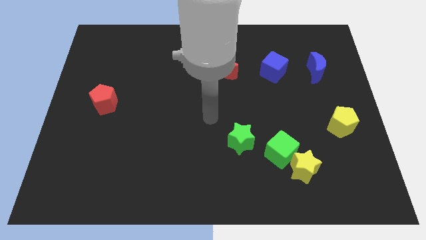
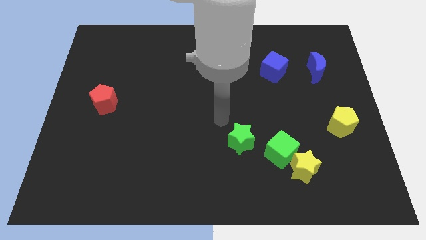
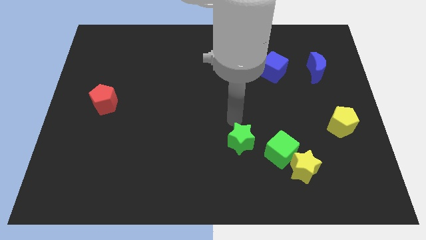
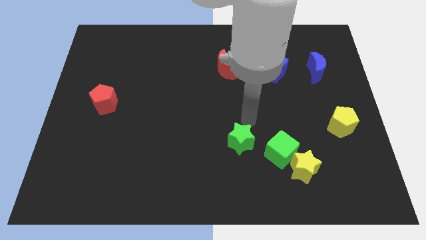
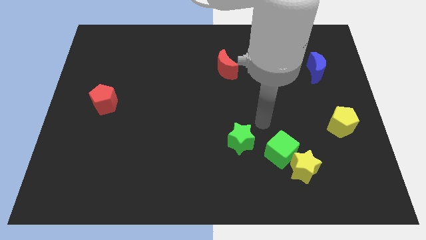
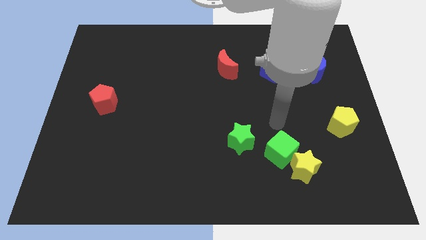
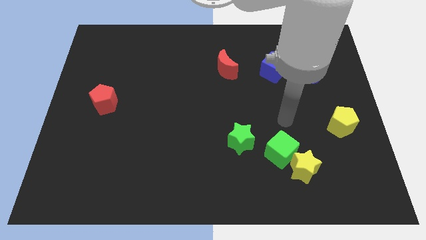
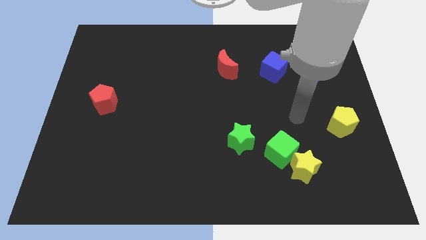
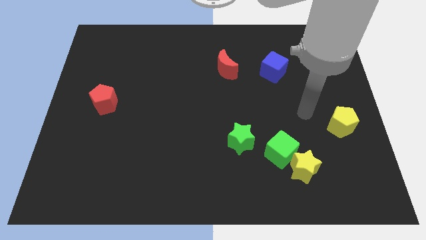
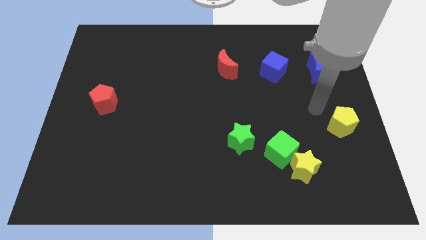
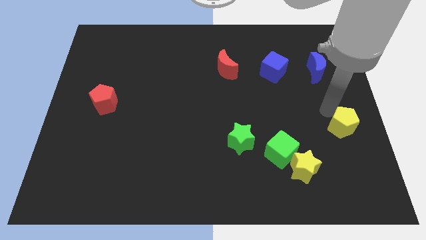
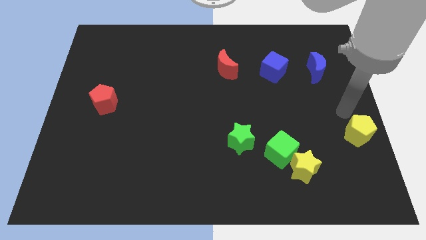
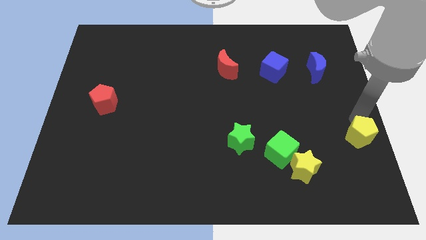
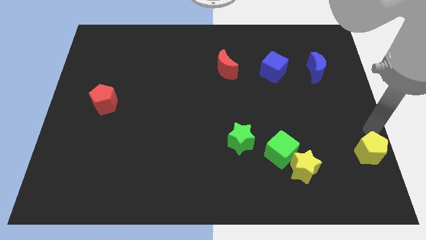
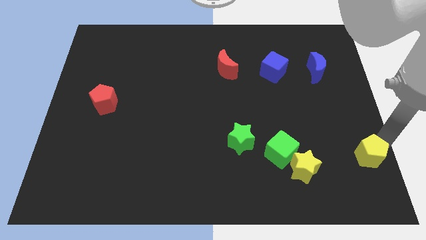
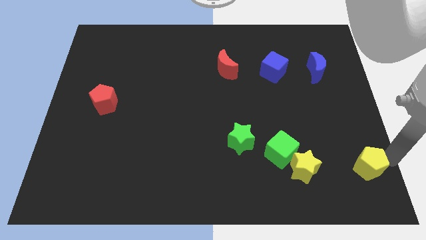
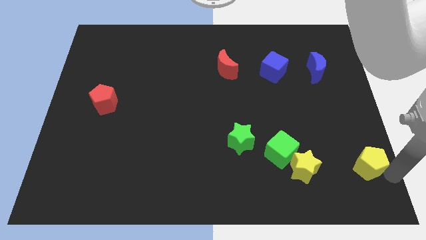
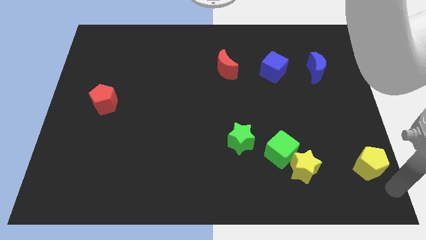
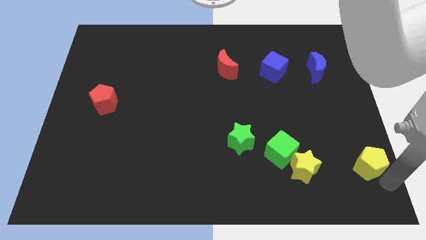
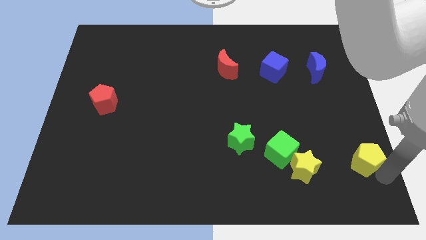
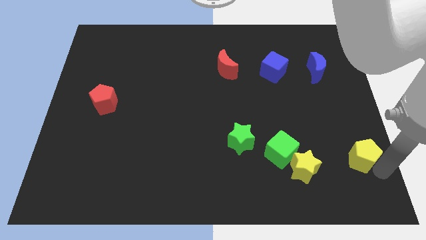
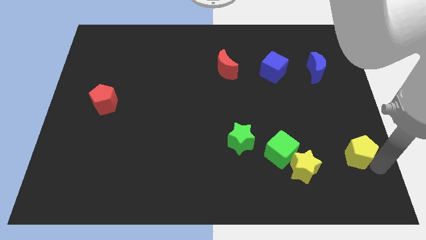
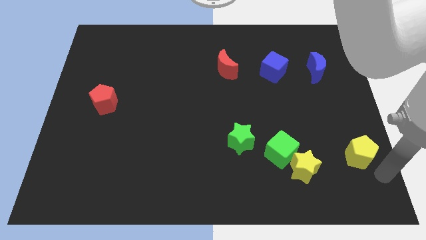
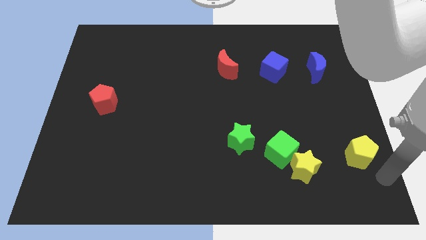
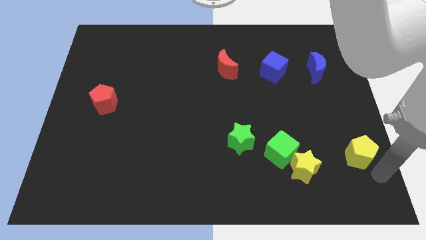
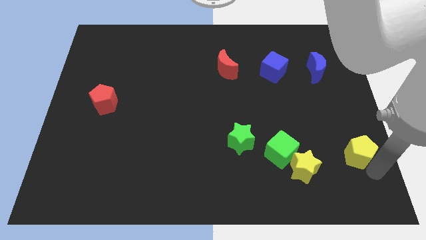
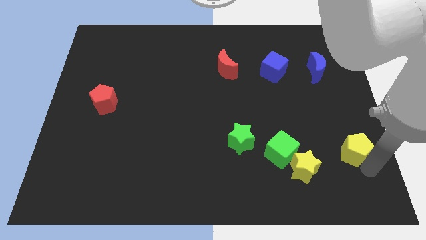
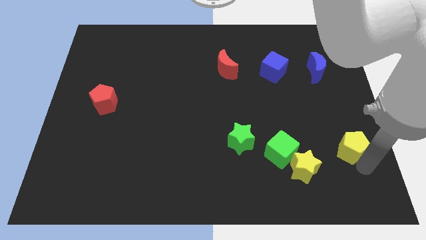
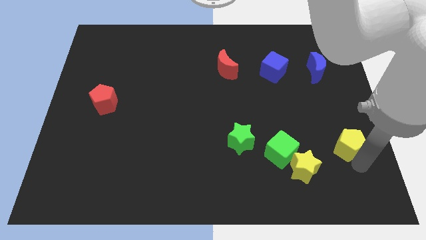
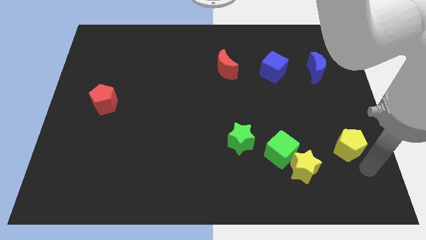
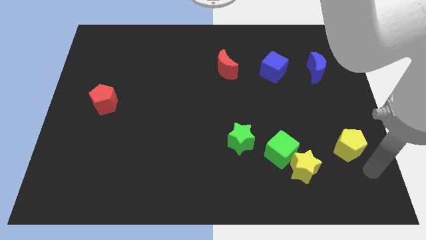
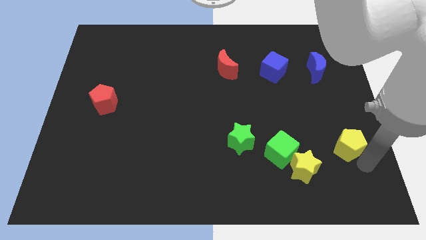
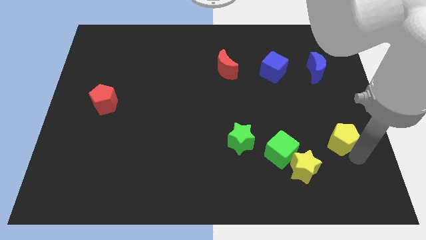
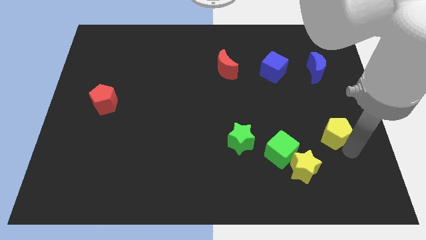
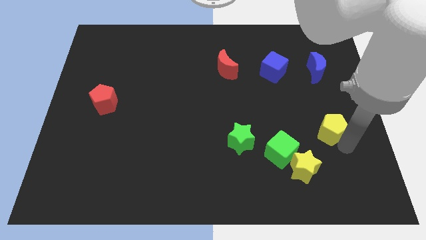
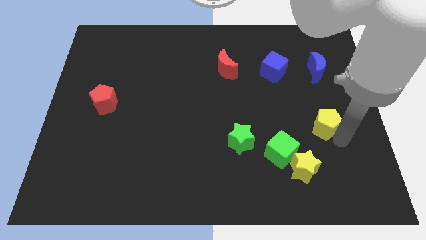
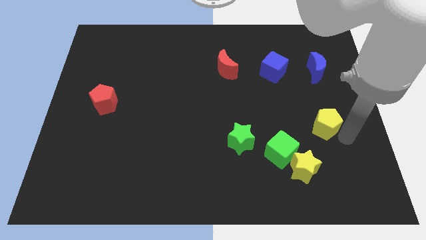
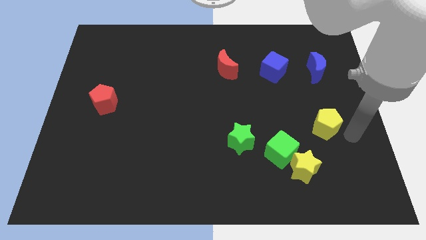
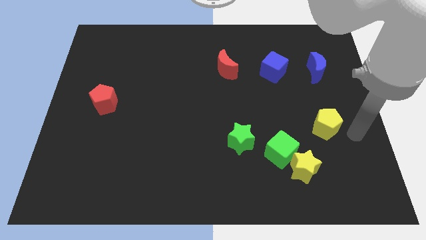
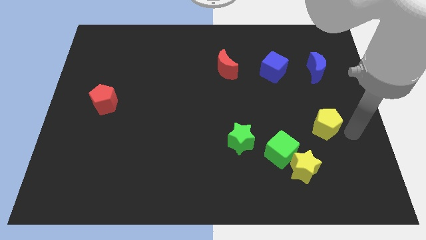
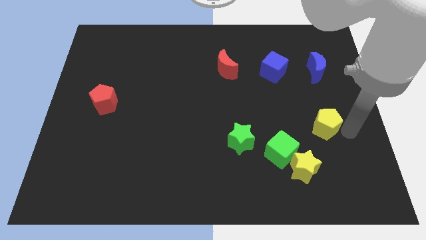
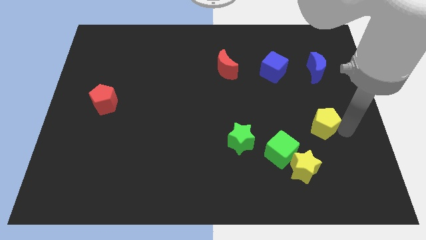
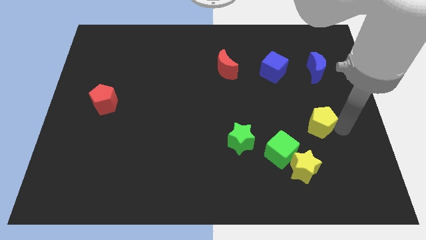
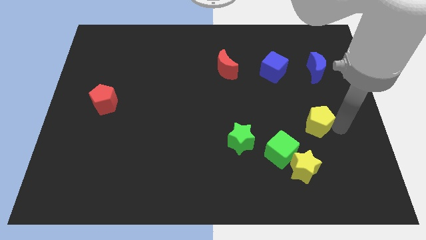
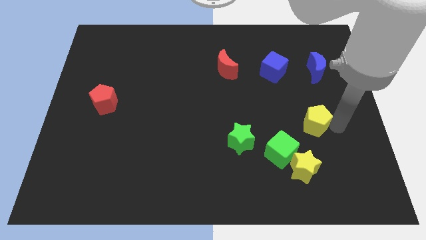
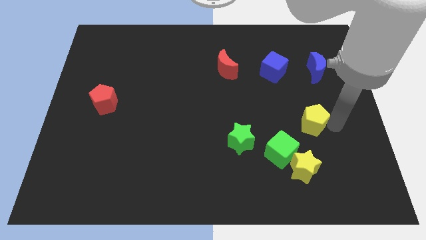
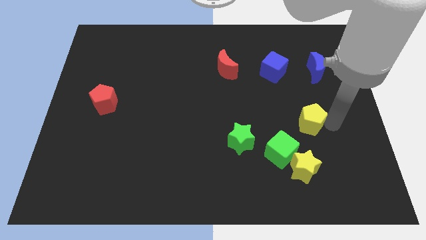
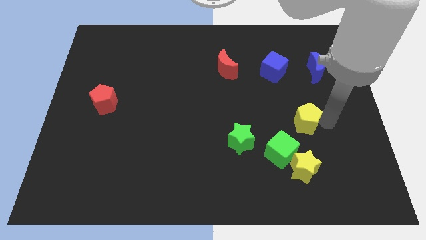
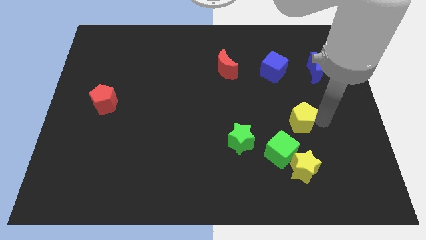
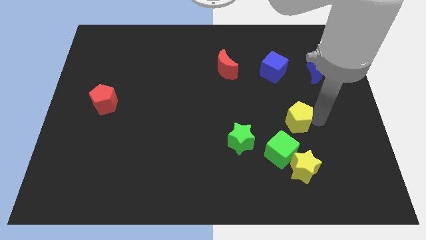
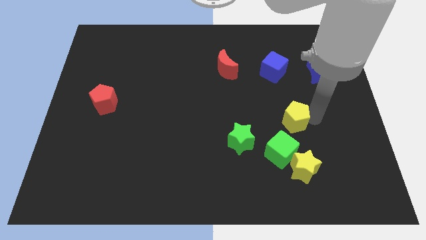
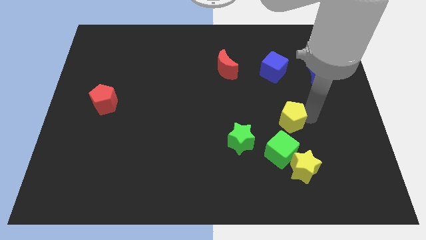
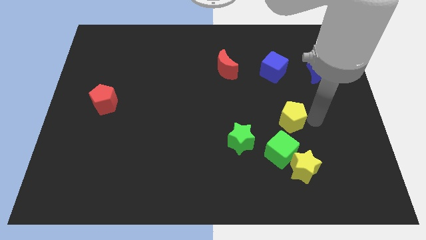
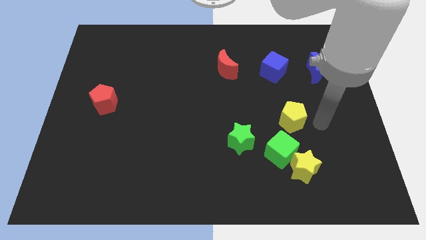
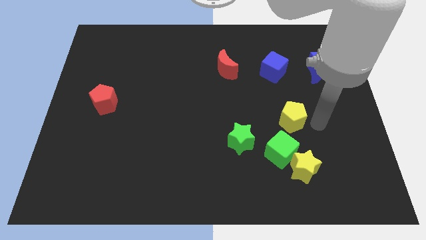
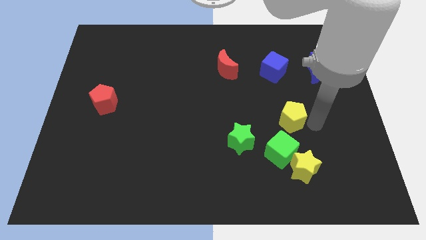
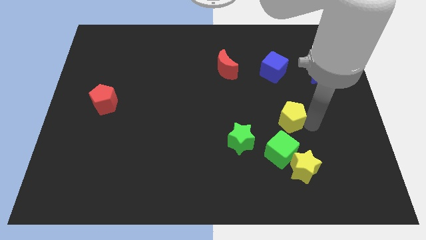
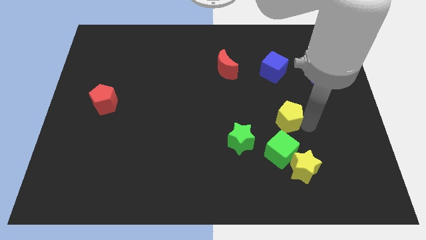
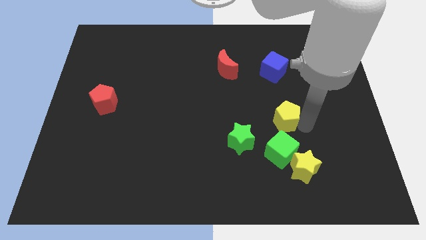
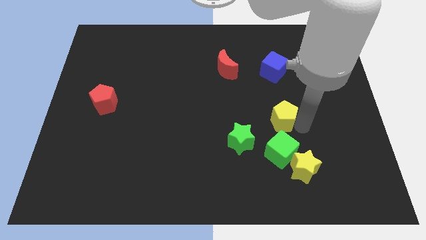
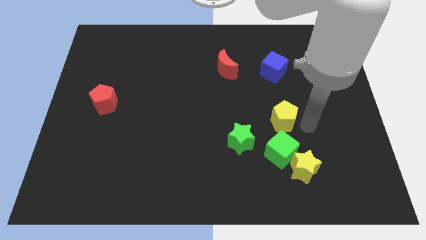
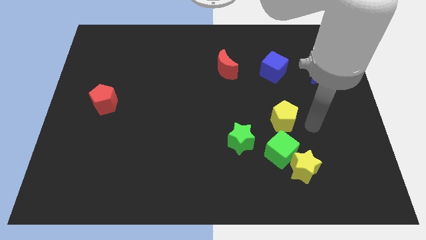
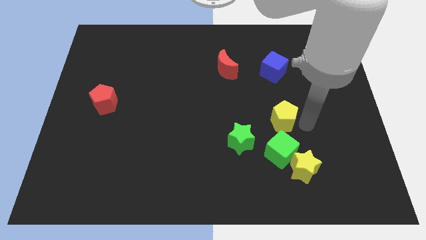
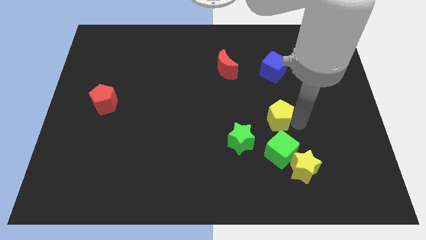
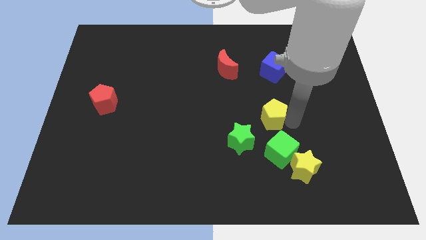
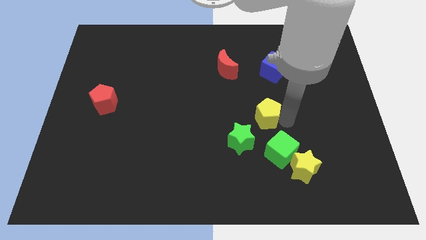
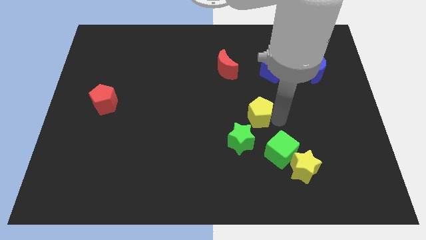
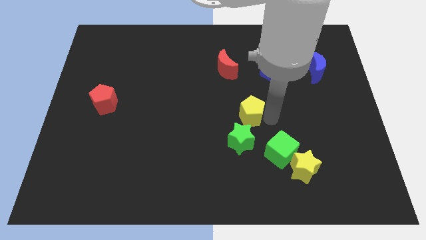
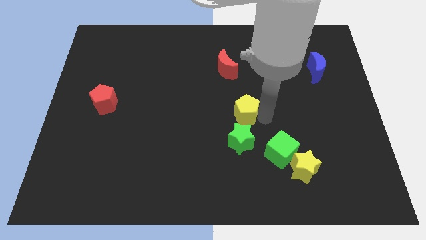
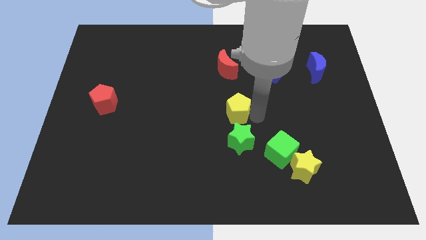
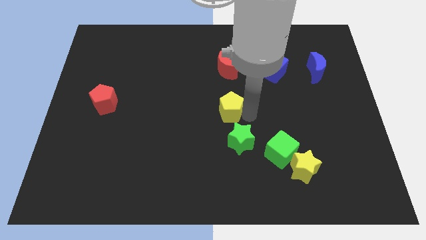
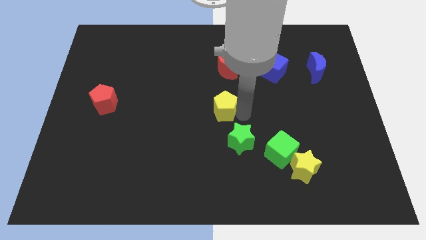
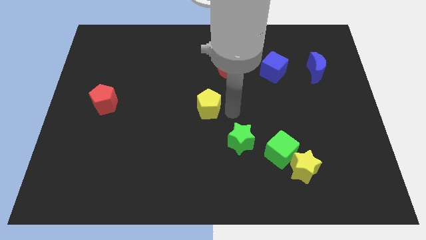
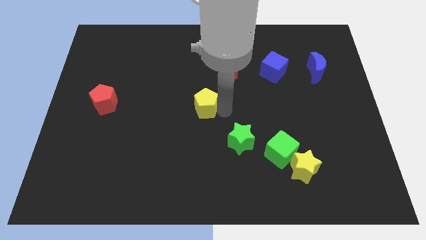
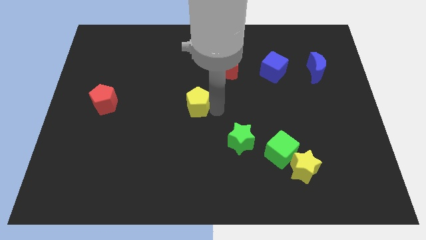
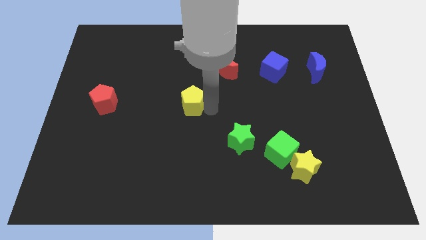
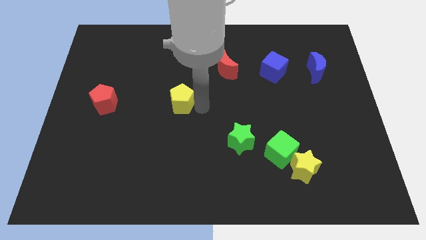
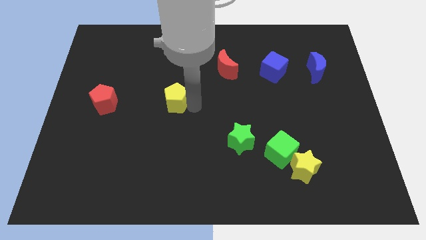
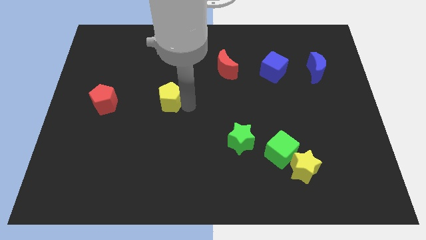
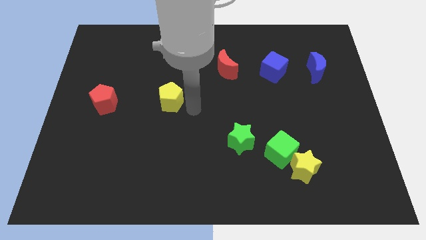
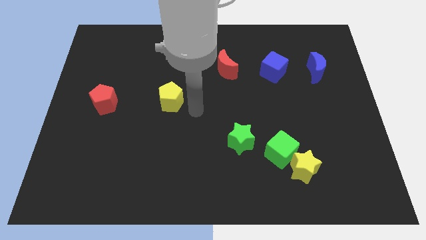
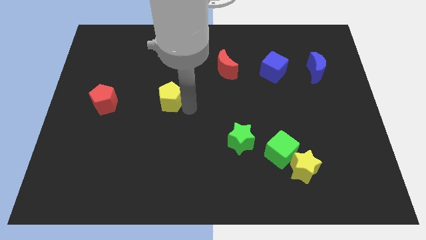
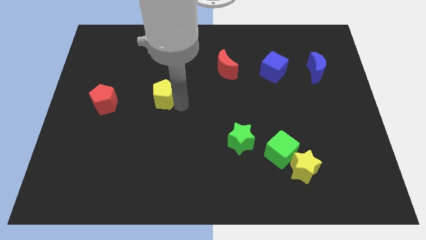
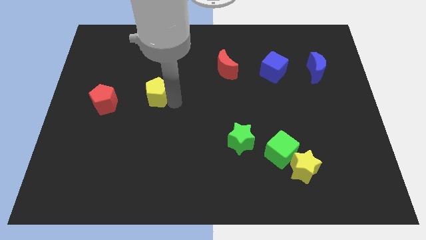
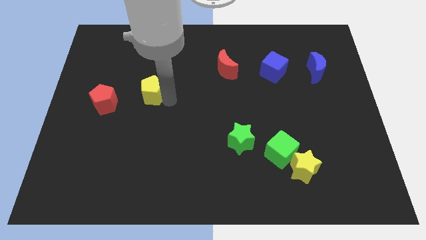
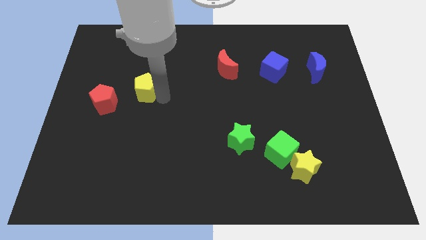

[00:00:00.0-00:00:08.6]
push the yellow pentagon to the top right side of the red pentagon

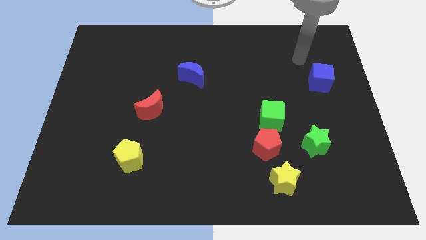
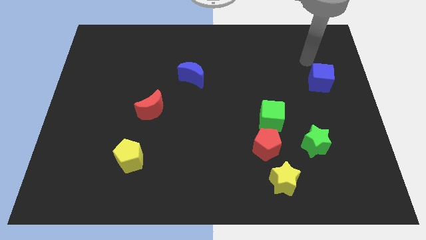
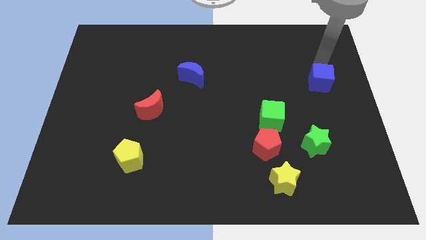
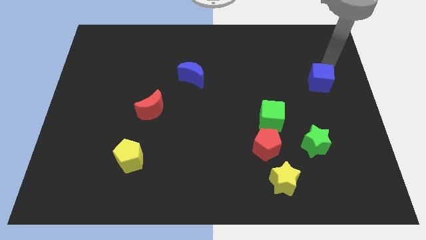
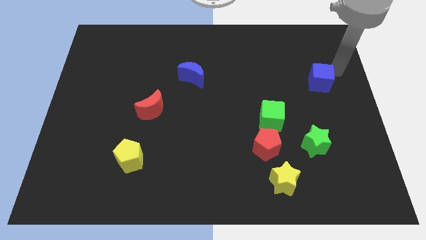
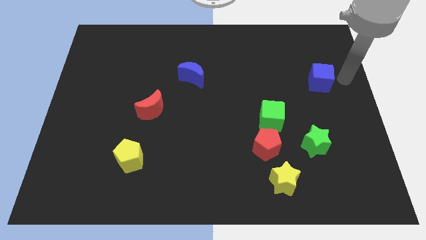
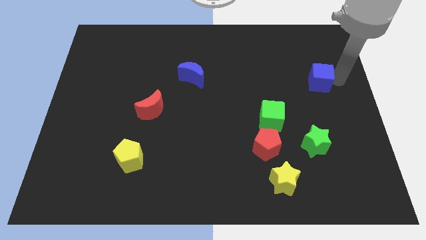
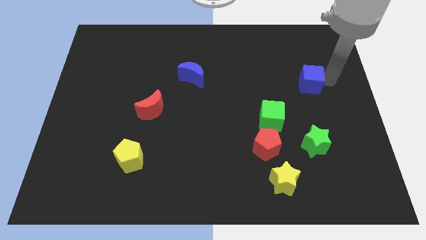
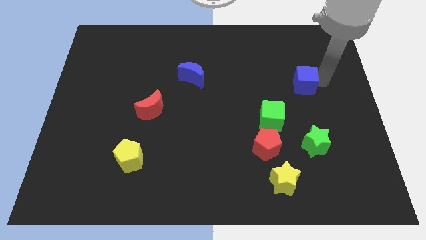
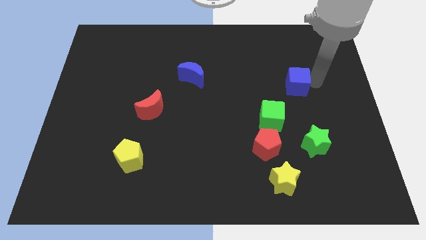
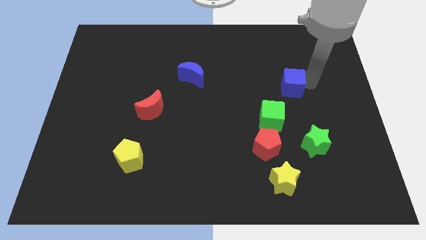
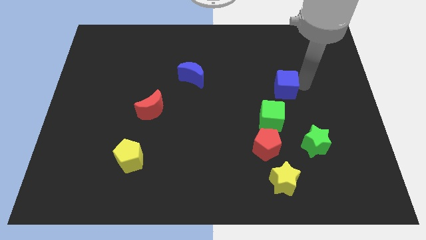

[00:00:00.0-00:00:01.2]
put the blue cube to the top side of the green cube
